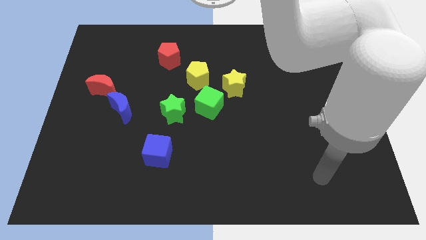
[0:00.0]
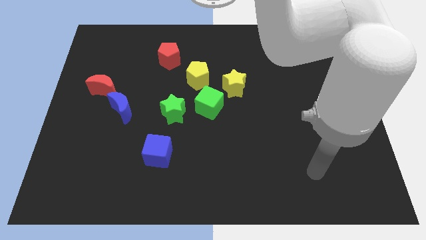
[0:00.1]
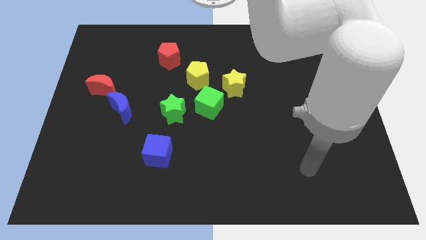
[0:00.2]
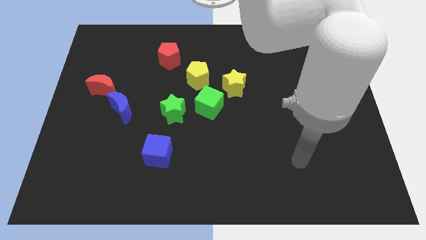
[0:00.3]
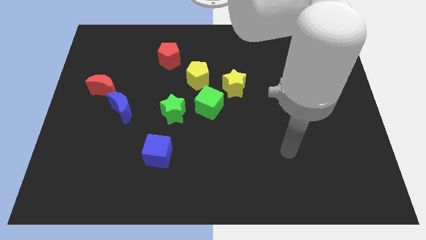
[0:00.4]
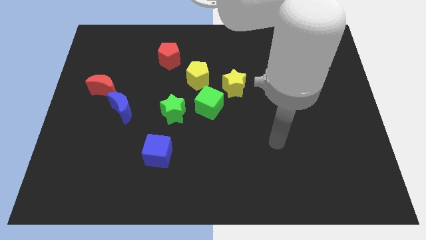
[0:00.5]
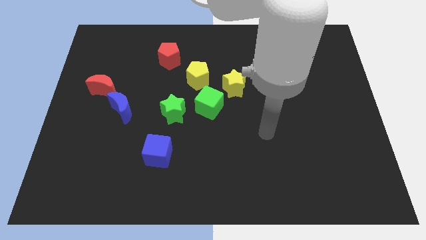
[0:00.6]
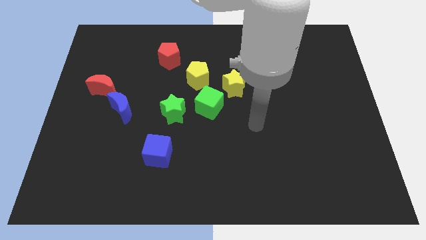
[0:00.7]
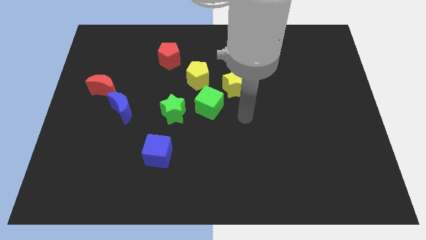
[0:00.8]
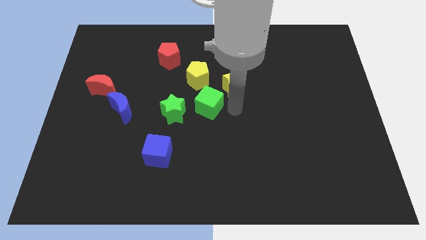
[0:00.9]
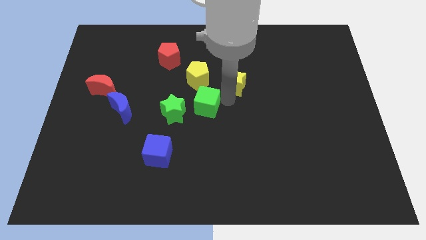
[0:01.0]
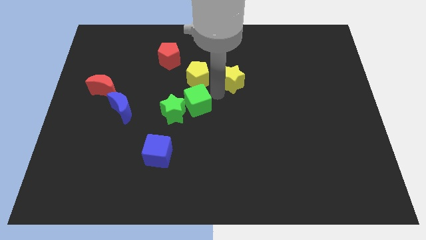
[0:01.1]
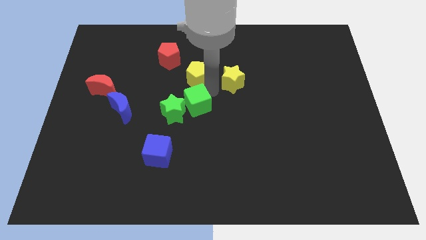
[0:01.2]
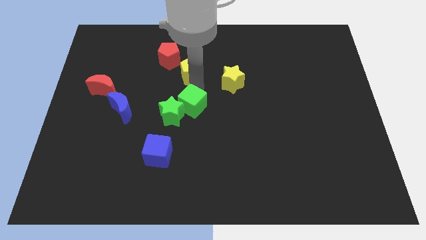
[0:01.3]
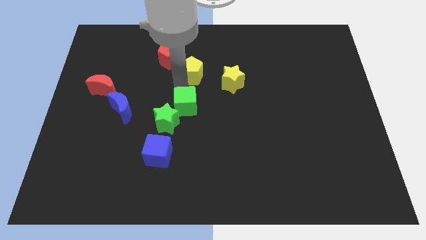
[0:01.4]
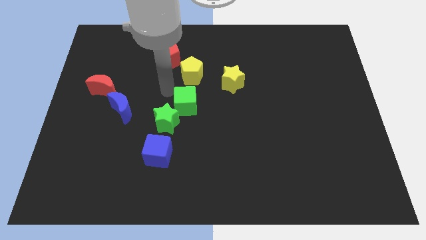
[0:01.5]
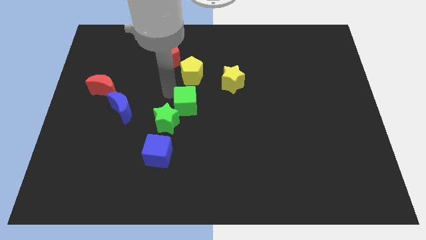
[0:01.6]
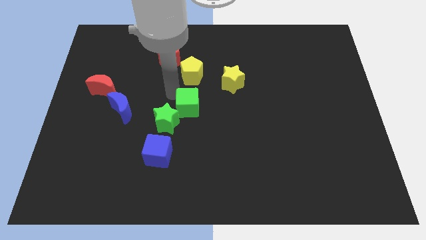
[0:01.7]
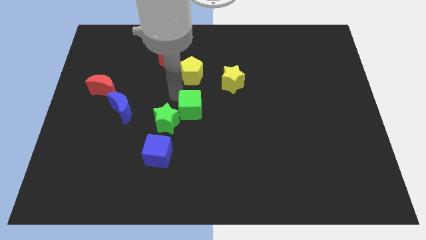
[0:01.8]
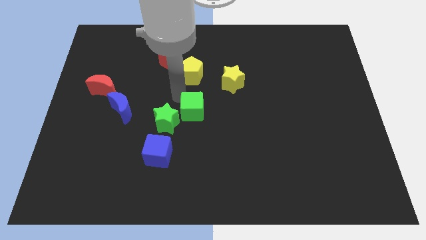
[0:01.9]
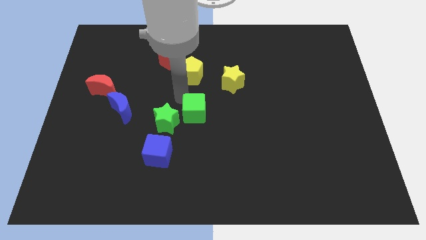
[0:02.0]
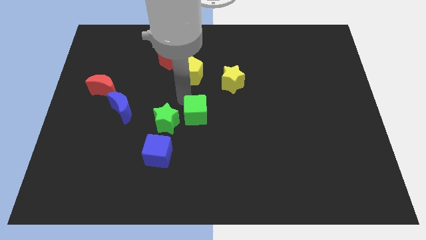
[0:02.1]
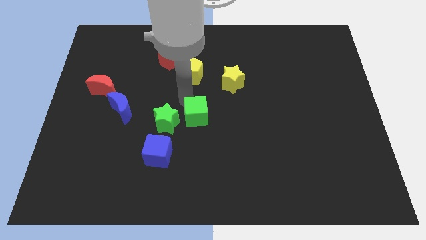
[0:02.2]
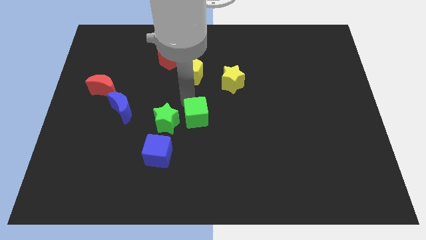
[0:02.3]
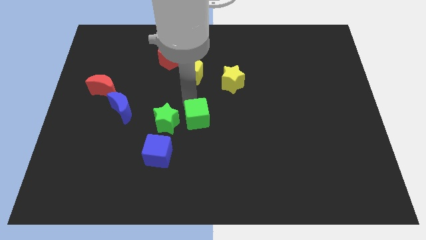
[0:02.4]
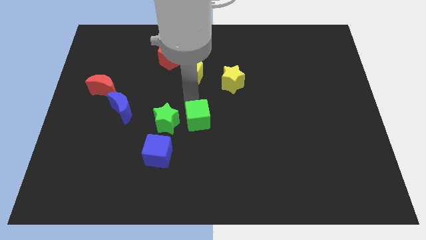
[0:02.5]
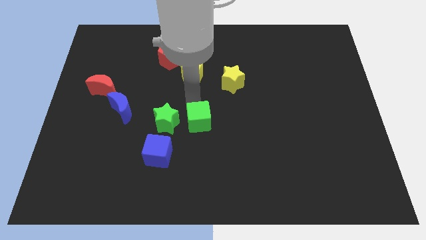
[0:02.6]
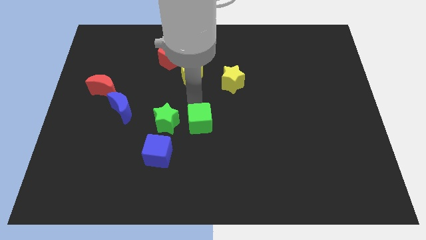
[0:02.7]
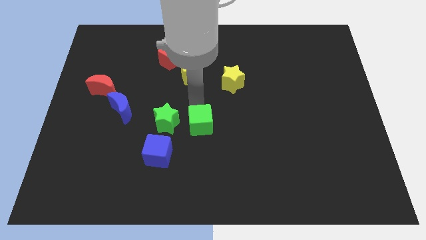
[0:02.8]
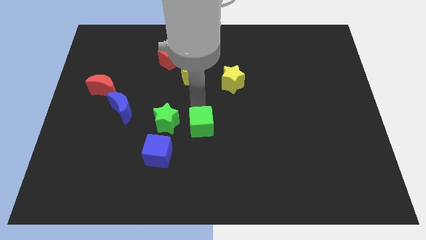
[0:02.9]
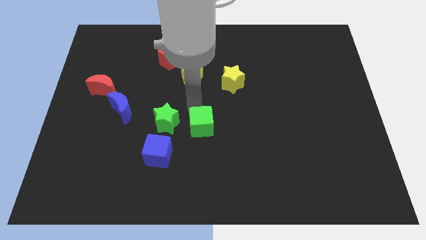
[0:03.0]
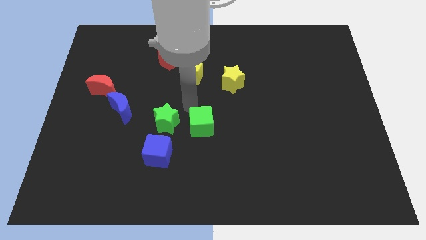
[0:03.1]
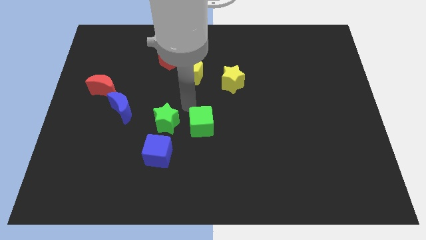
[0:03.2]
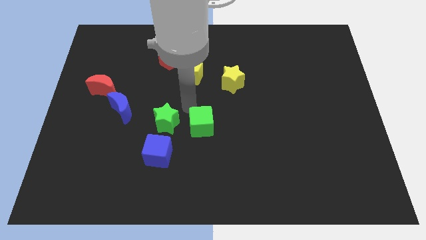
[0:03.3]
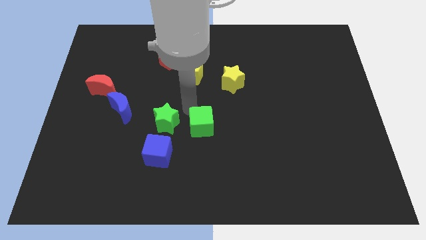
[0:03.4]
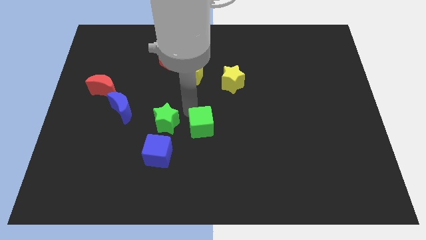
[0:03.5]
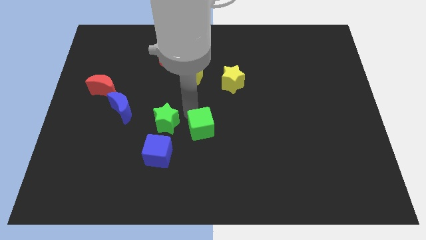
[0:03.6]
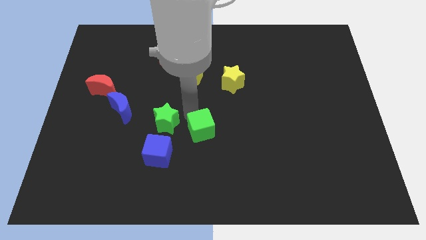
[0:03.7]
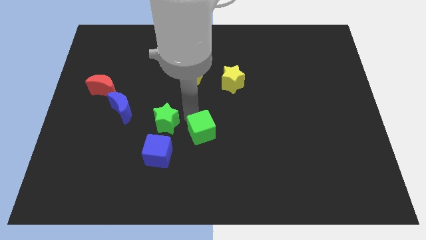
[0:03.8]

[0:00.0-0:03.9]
push the green cube down slightly

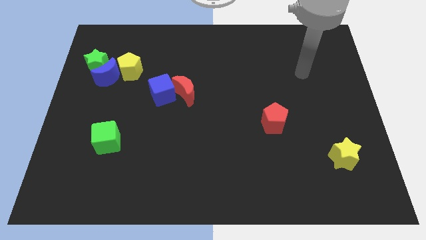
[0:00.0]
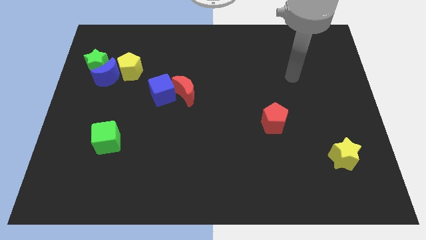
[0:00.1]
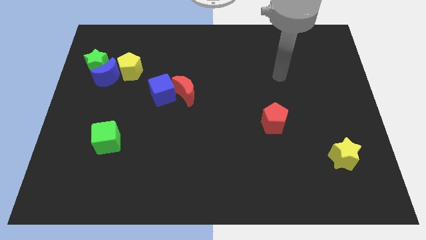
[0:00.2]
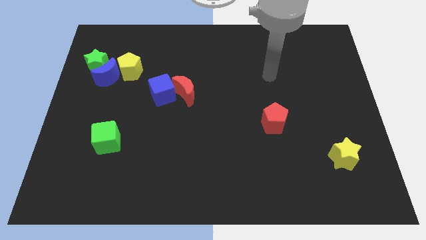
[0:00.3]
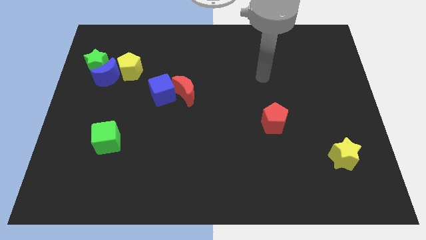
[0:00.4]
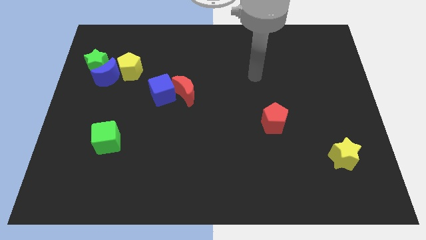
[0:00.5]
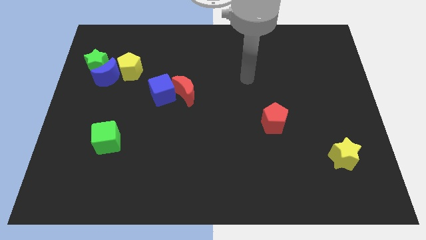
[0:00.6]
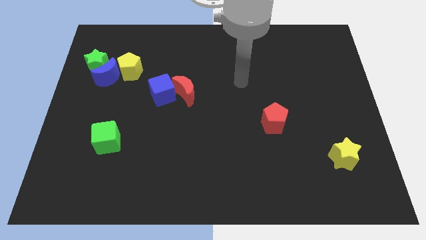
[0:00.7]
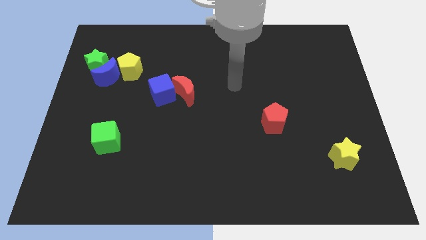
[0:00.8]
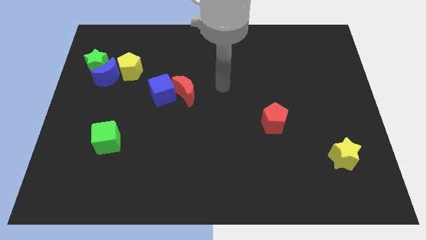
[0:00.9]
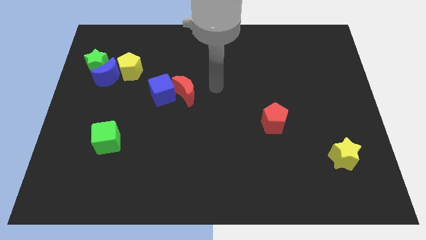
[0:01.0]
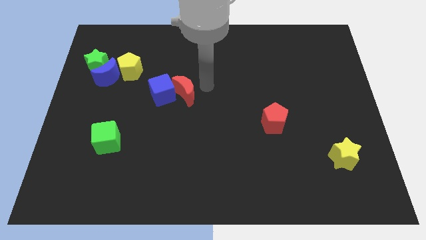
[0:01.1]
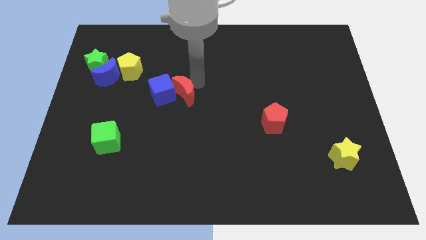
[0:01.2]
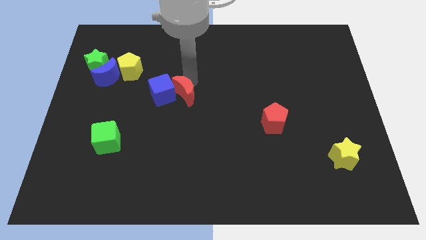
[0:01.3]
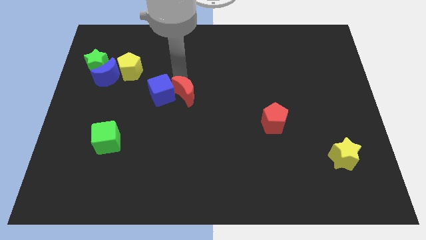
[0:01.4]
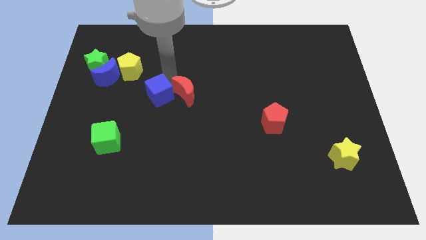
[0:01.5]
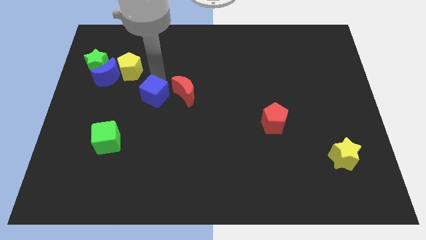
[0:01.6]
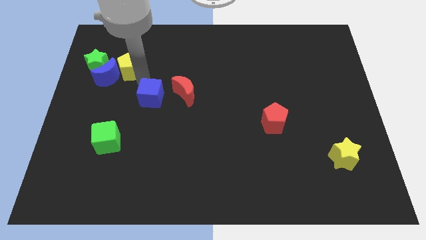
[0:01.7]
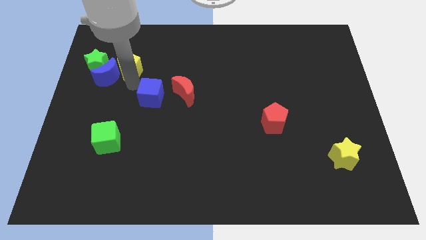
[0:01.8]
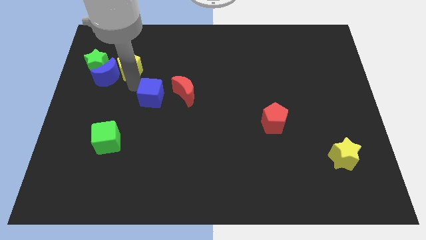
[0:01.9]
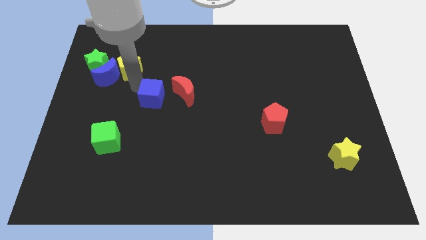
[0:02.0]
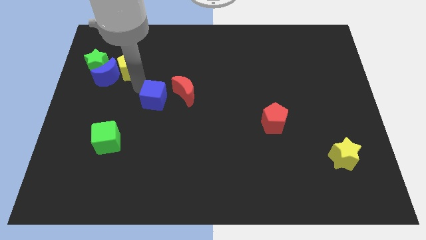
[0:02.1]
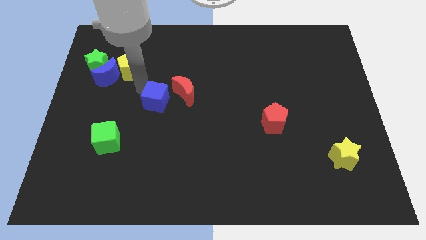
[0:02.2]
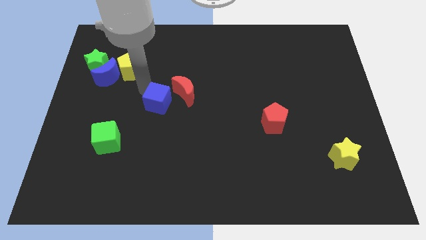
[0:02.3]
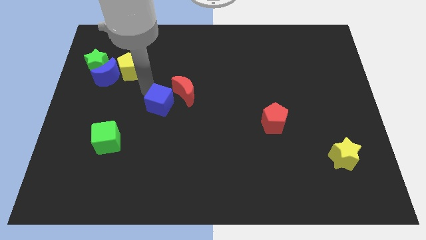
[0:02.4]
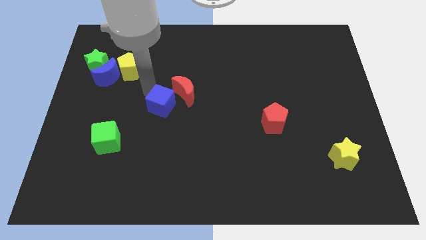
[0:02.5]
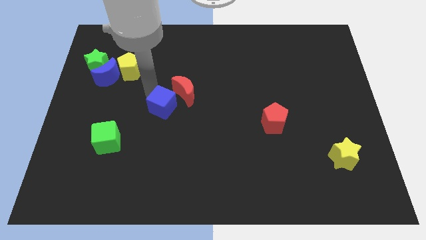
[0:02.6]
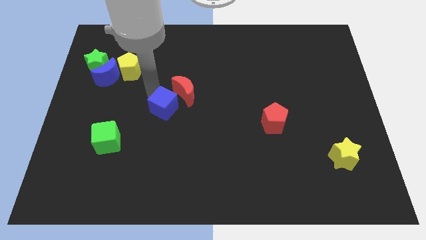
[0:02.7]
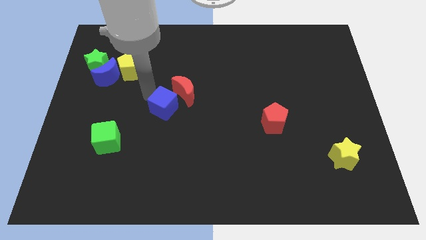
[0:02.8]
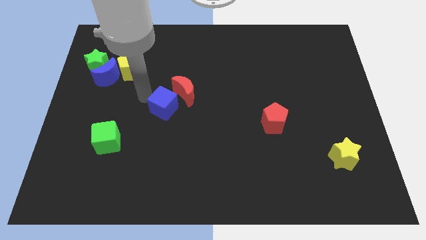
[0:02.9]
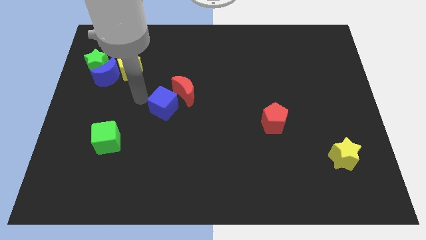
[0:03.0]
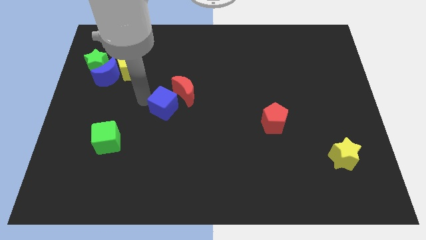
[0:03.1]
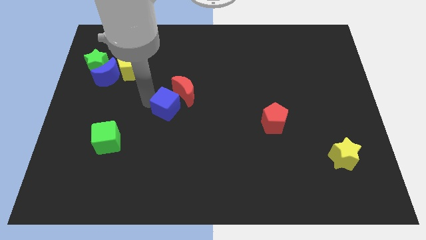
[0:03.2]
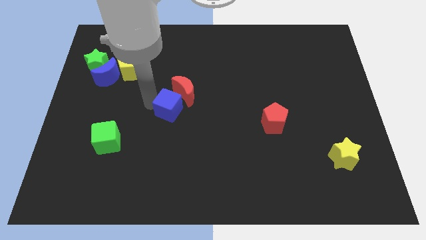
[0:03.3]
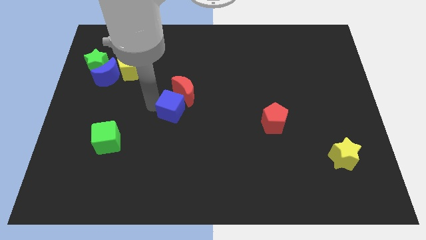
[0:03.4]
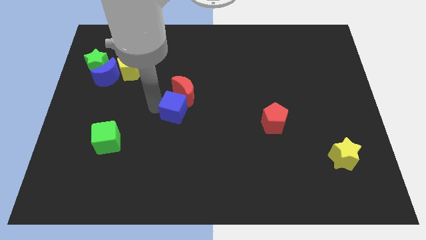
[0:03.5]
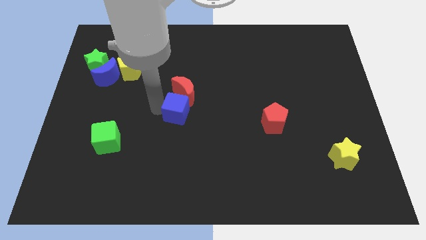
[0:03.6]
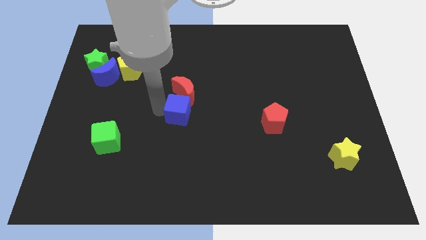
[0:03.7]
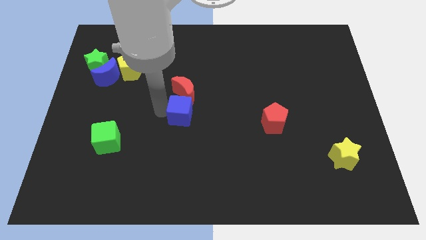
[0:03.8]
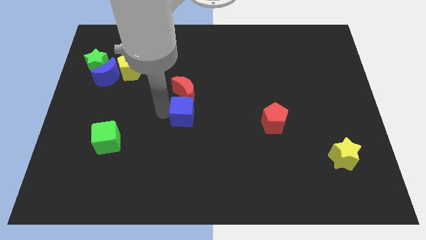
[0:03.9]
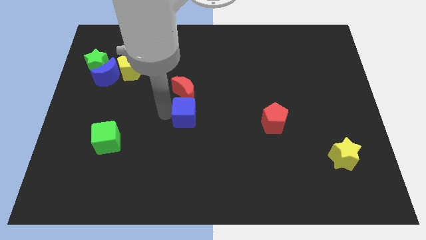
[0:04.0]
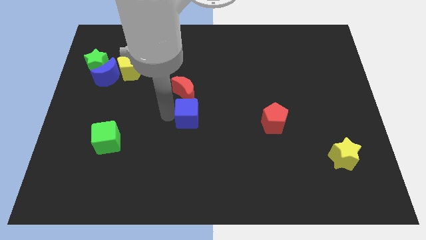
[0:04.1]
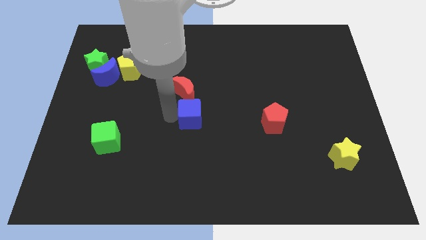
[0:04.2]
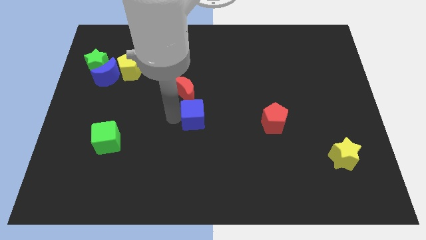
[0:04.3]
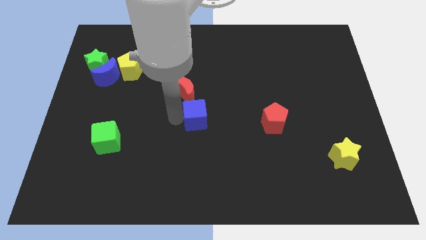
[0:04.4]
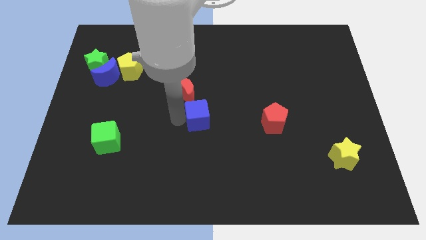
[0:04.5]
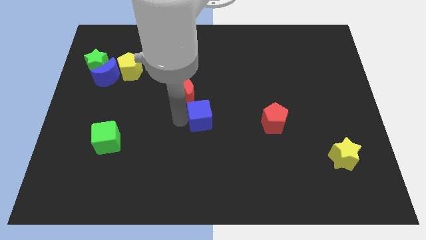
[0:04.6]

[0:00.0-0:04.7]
slide the blue cube to the right a little bit
